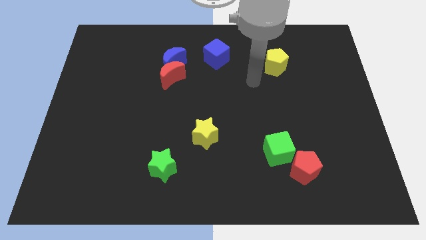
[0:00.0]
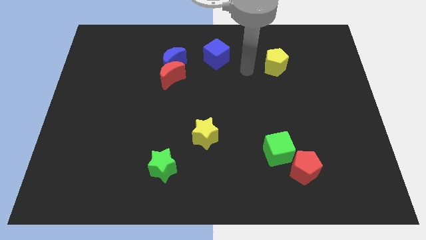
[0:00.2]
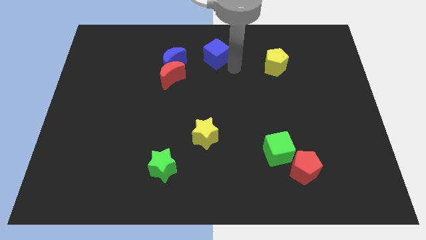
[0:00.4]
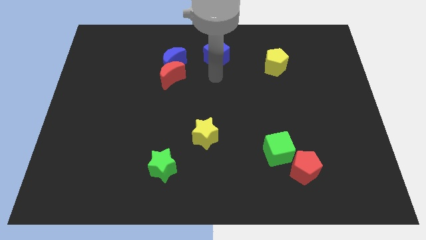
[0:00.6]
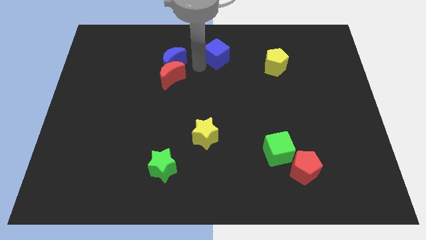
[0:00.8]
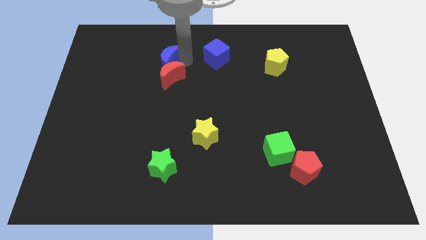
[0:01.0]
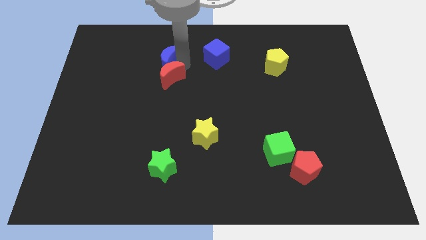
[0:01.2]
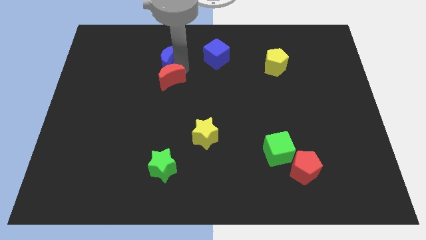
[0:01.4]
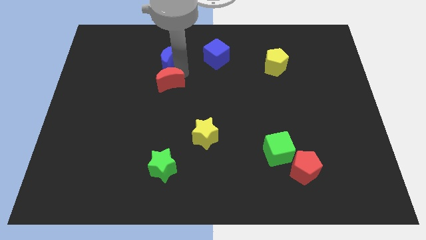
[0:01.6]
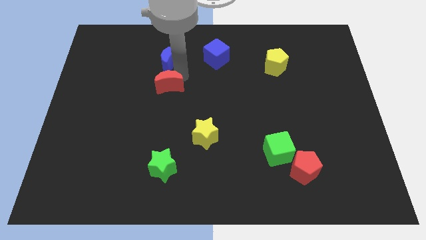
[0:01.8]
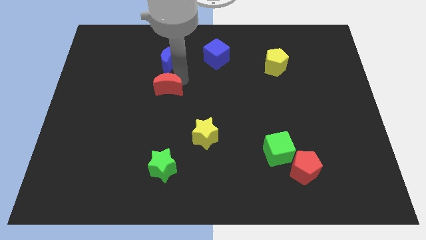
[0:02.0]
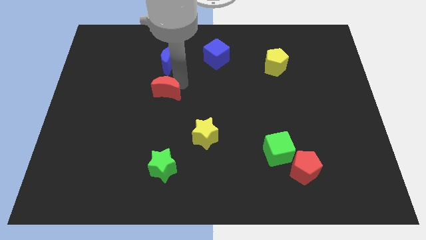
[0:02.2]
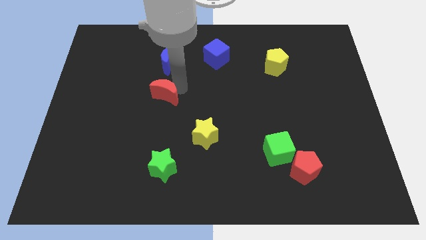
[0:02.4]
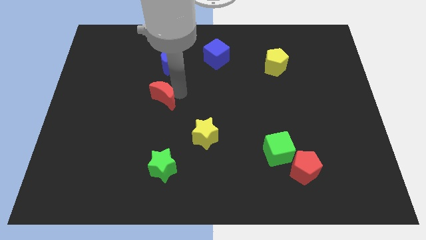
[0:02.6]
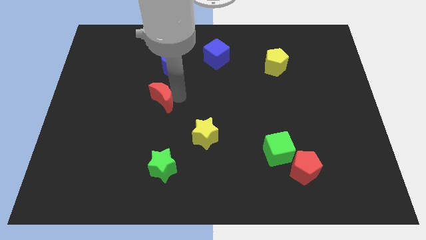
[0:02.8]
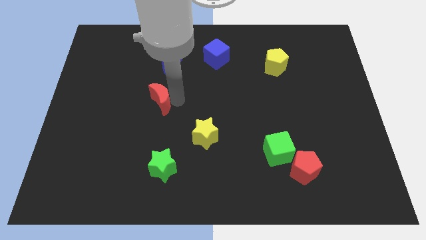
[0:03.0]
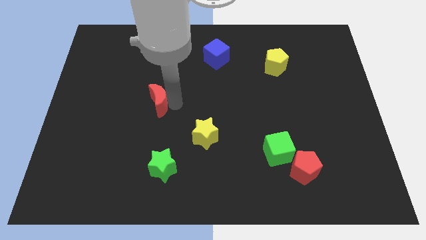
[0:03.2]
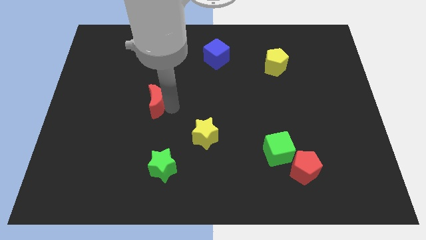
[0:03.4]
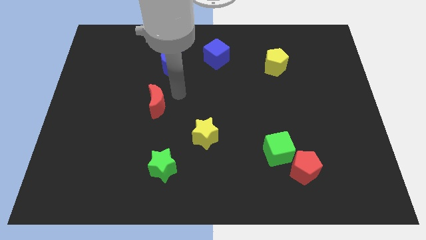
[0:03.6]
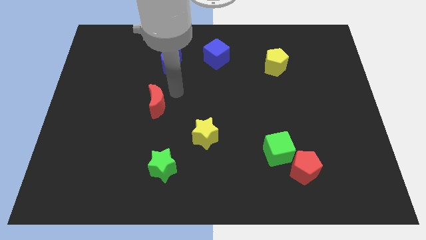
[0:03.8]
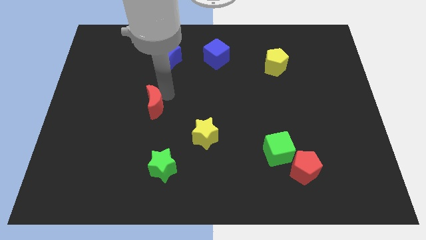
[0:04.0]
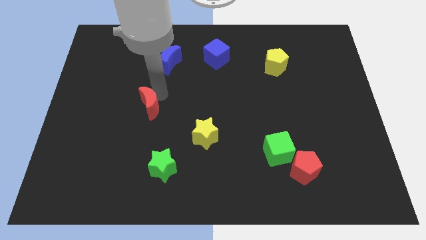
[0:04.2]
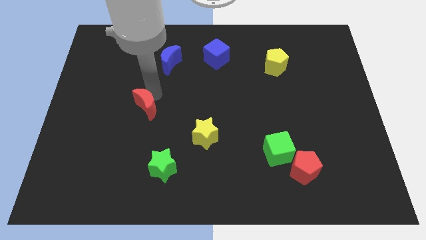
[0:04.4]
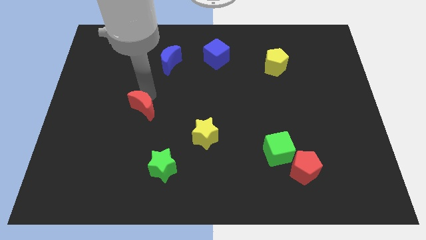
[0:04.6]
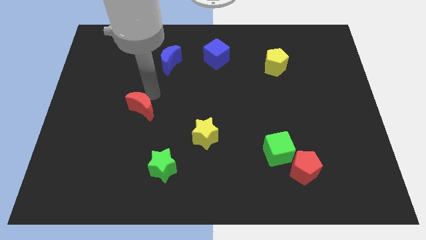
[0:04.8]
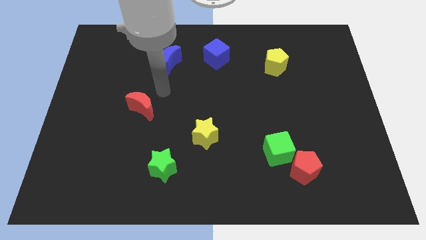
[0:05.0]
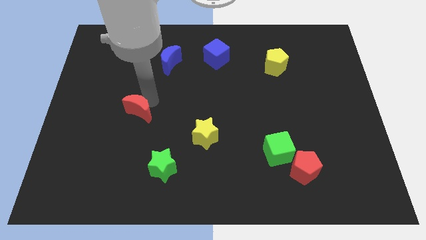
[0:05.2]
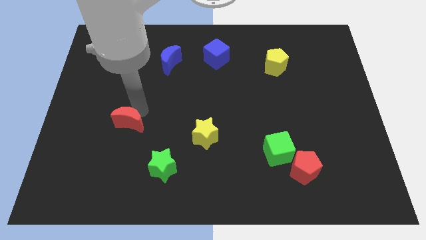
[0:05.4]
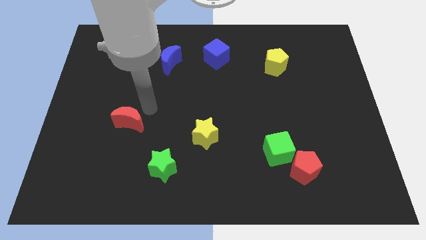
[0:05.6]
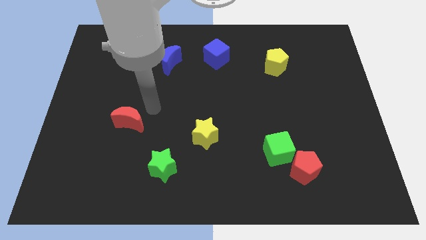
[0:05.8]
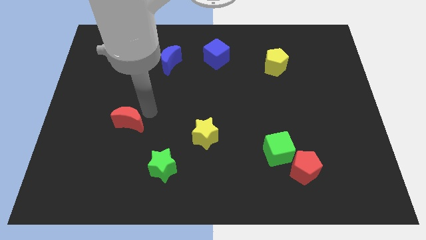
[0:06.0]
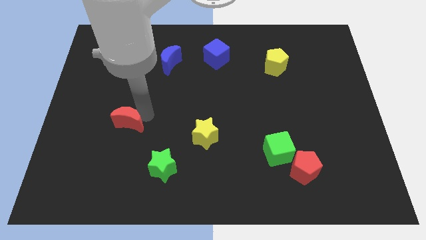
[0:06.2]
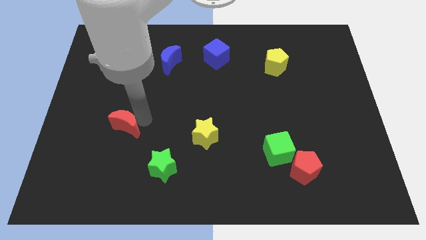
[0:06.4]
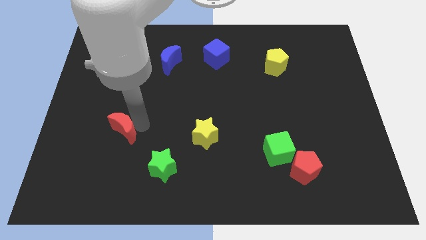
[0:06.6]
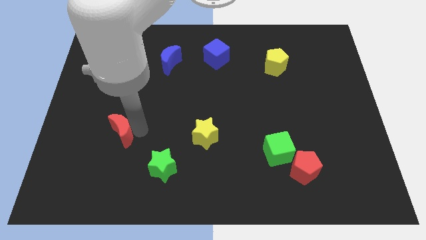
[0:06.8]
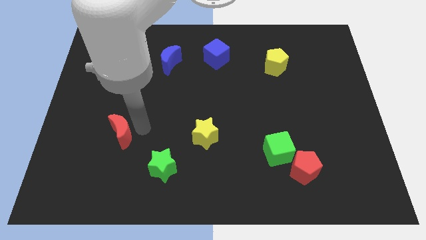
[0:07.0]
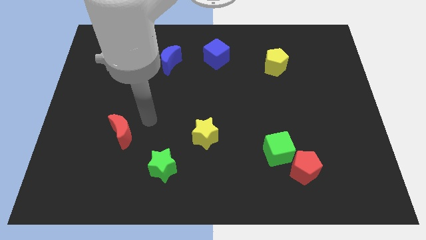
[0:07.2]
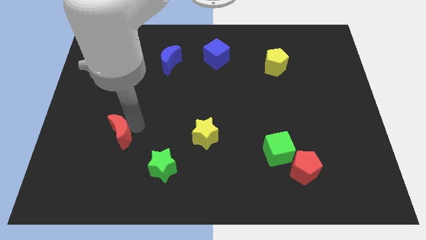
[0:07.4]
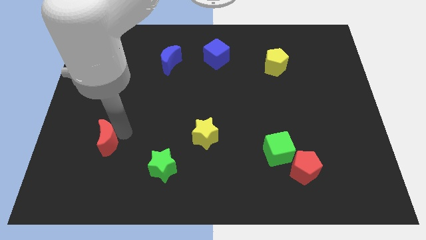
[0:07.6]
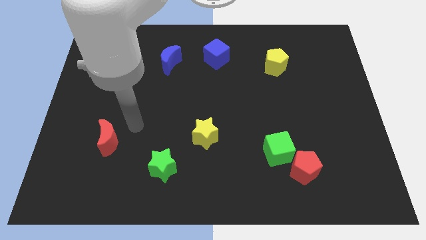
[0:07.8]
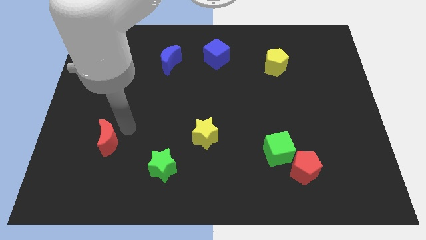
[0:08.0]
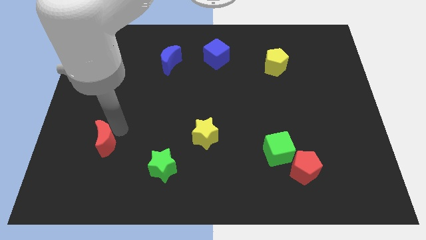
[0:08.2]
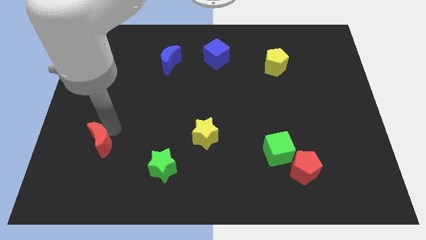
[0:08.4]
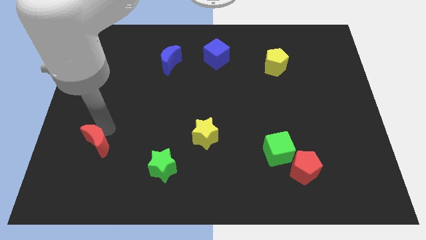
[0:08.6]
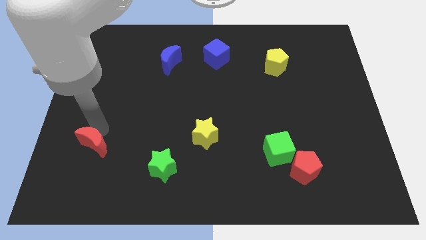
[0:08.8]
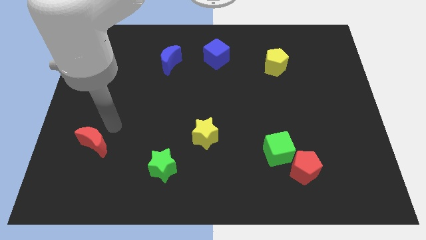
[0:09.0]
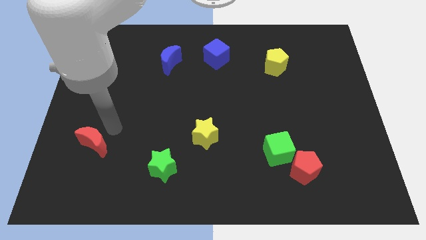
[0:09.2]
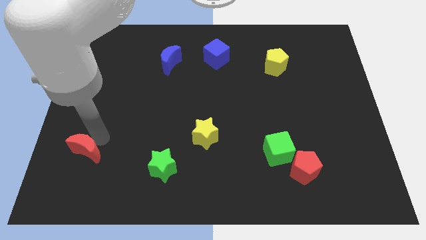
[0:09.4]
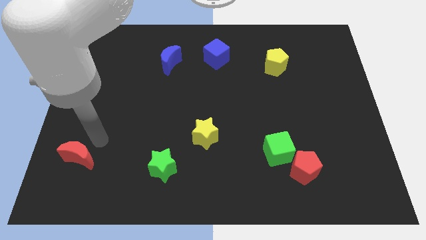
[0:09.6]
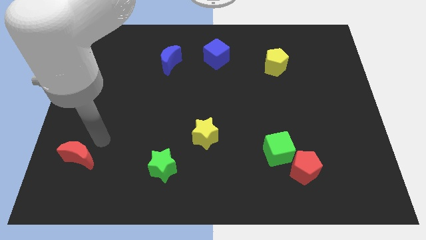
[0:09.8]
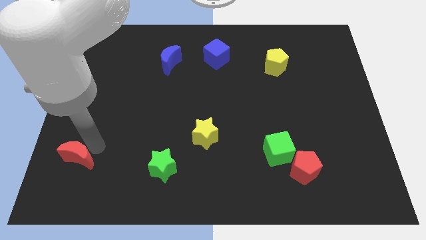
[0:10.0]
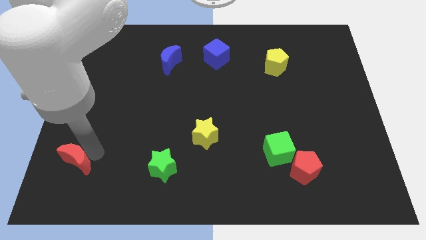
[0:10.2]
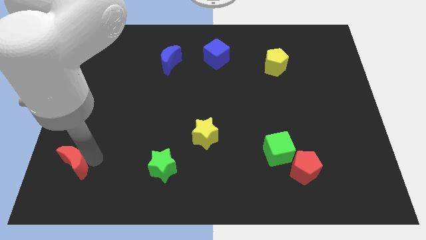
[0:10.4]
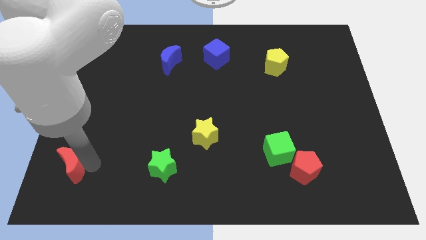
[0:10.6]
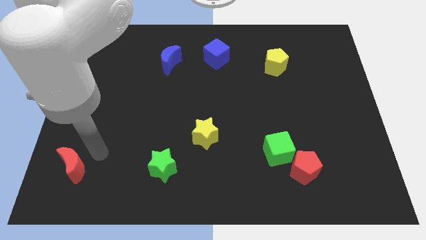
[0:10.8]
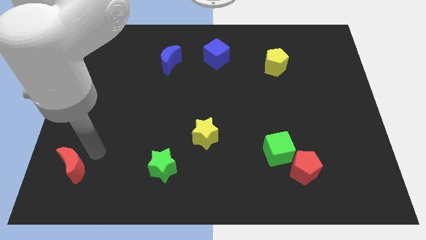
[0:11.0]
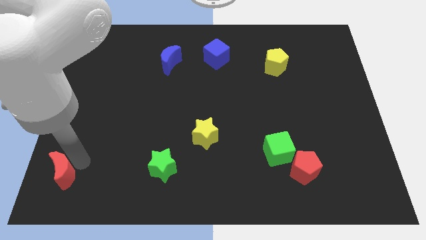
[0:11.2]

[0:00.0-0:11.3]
move the red moon to the bottom left
